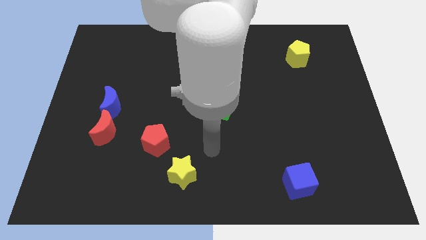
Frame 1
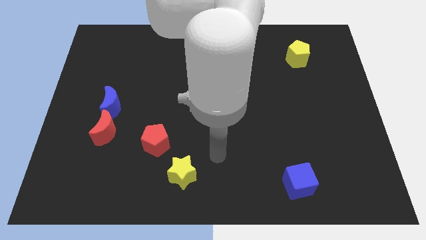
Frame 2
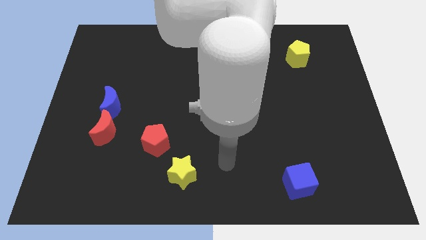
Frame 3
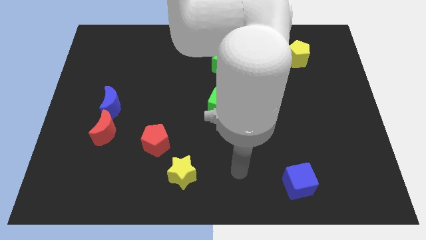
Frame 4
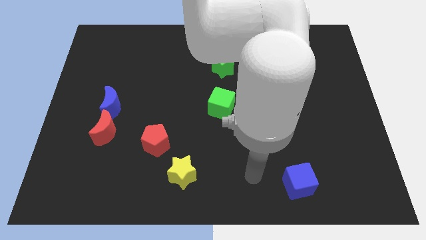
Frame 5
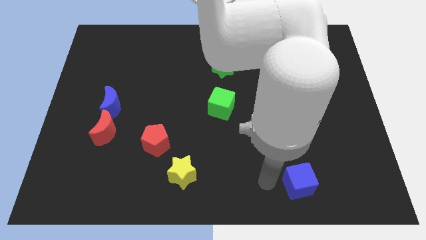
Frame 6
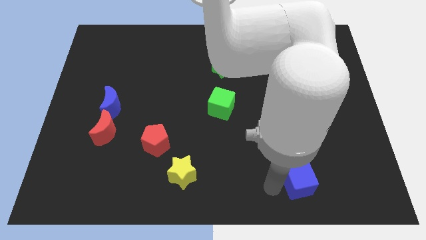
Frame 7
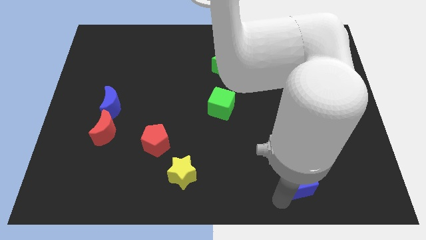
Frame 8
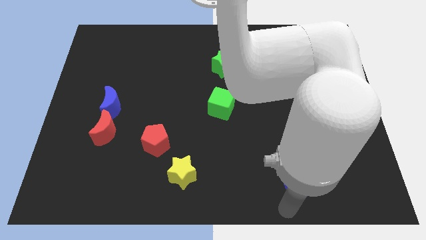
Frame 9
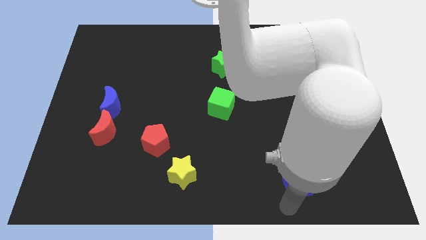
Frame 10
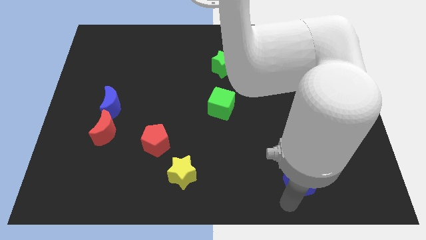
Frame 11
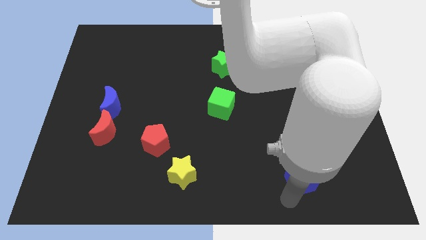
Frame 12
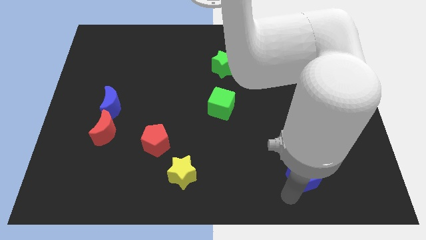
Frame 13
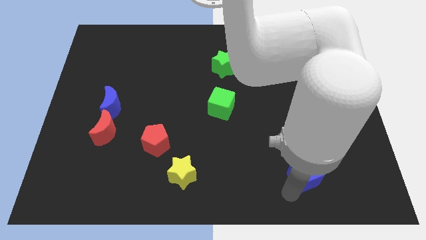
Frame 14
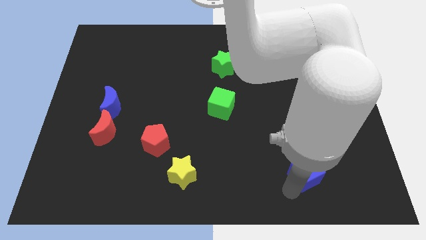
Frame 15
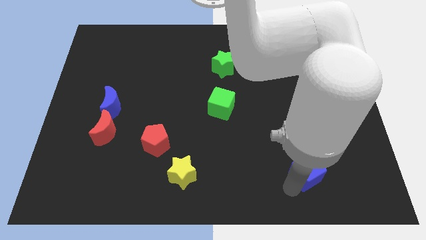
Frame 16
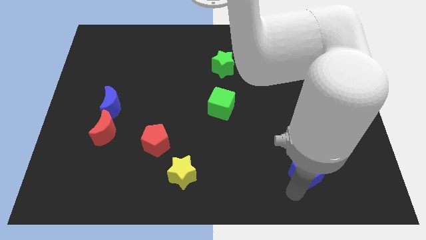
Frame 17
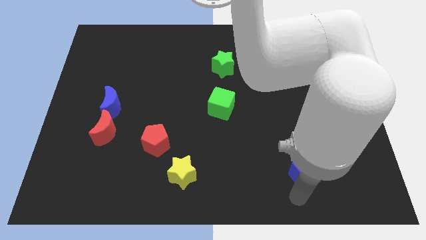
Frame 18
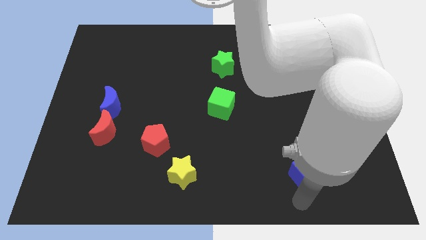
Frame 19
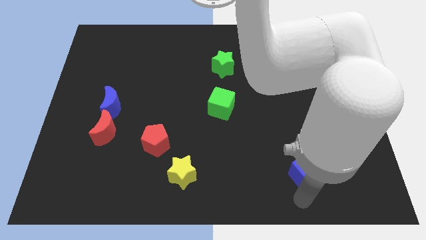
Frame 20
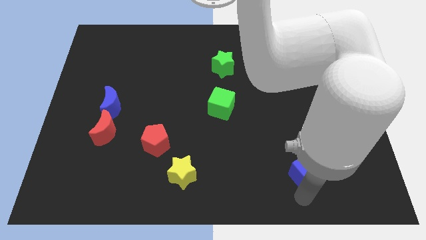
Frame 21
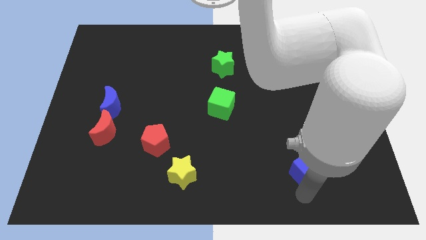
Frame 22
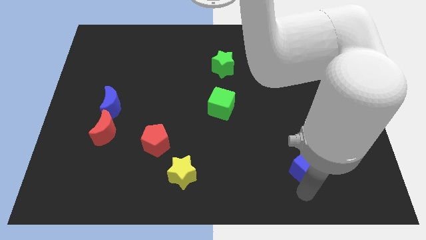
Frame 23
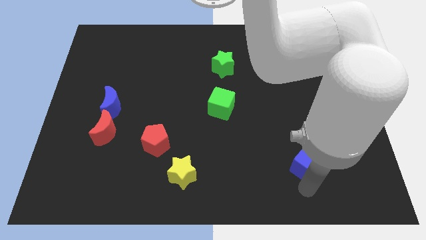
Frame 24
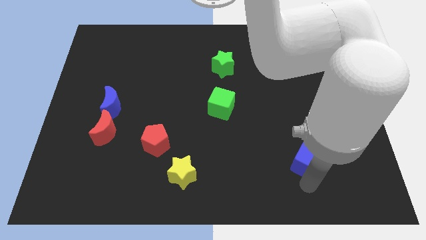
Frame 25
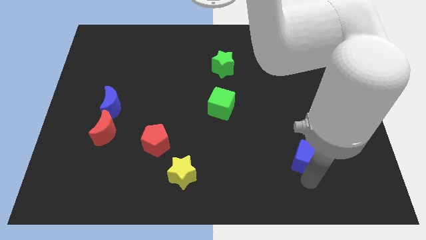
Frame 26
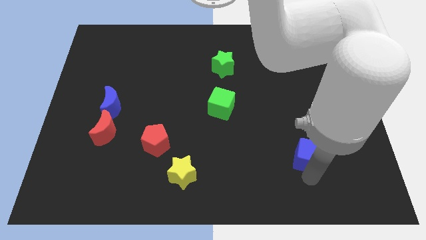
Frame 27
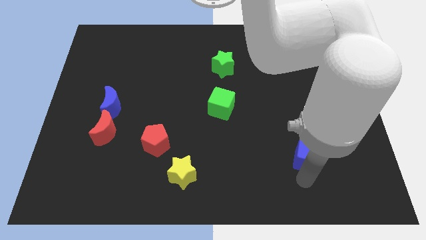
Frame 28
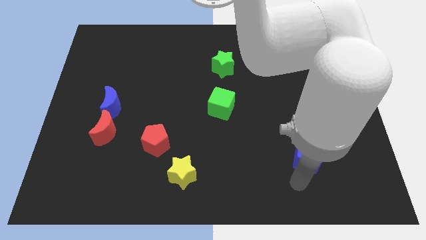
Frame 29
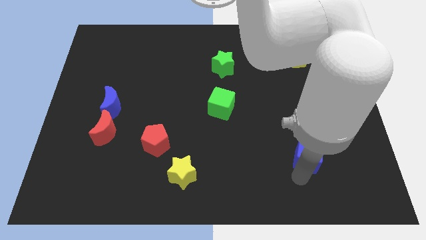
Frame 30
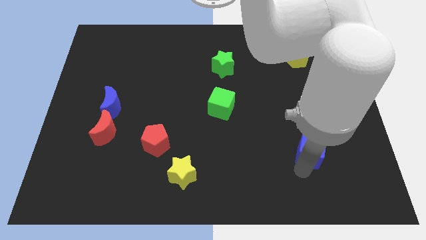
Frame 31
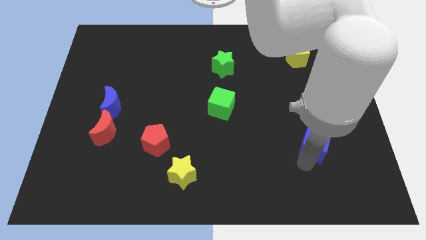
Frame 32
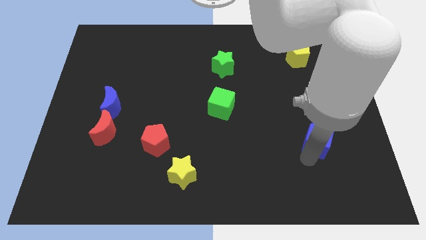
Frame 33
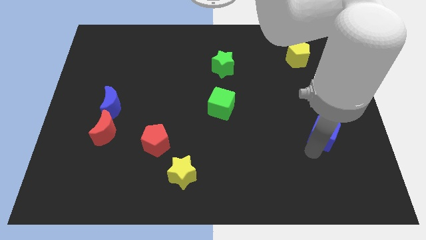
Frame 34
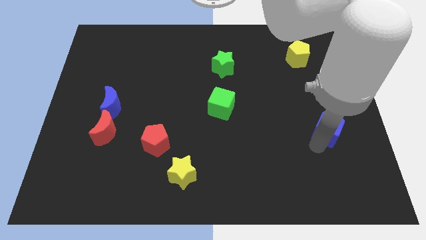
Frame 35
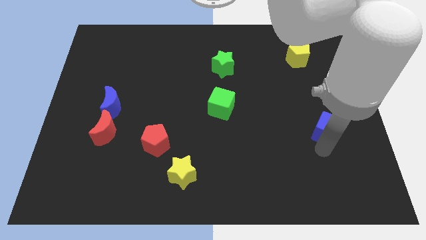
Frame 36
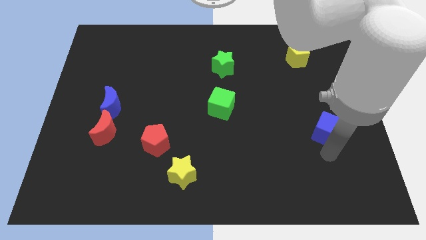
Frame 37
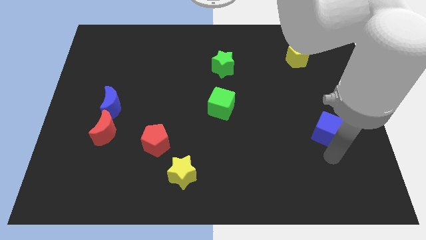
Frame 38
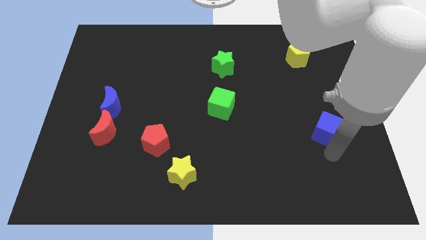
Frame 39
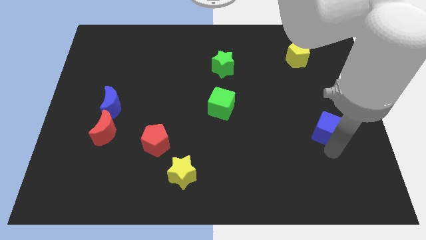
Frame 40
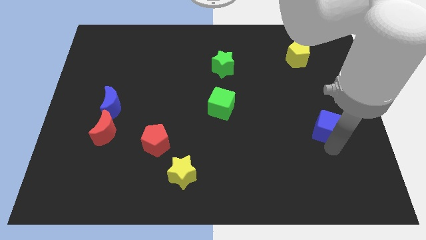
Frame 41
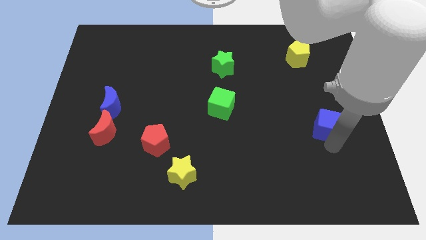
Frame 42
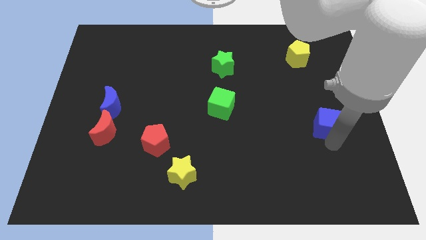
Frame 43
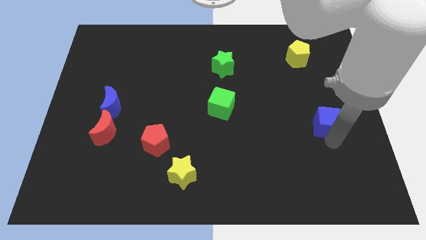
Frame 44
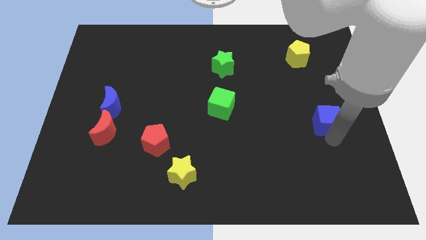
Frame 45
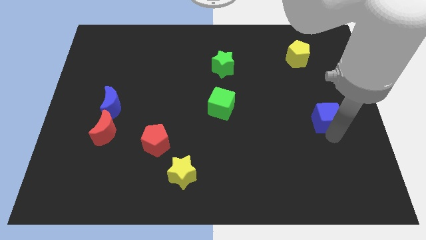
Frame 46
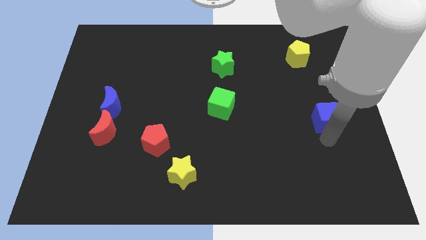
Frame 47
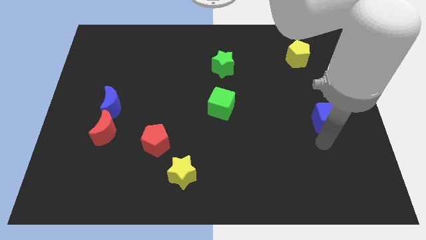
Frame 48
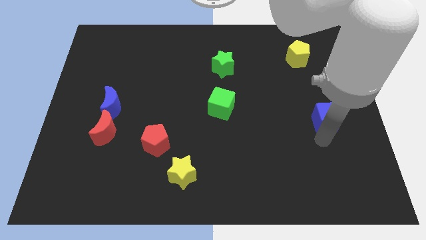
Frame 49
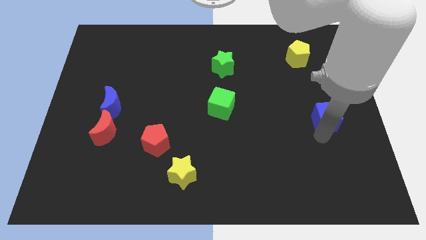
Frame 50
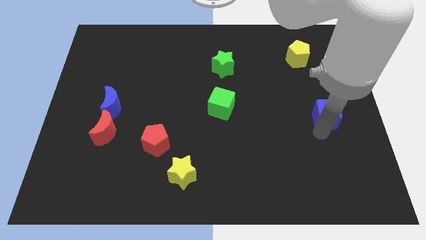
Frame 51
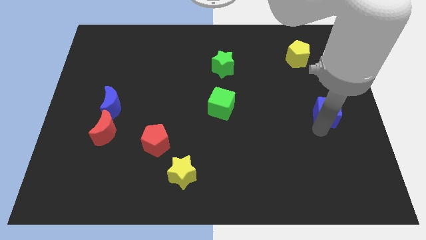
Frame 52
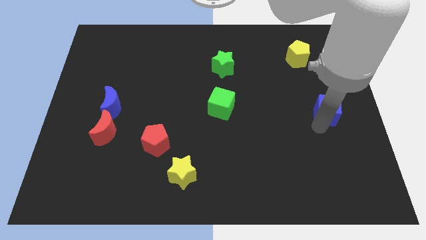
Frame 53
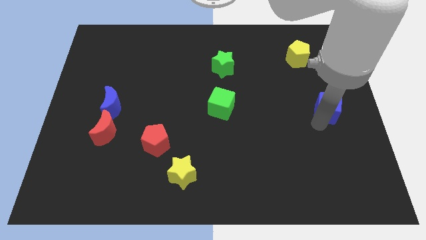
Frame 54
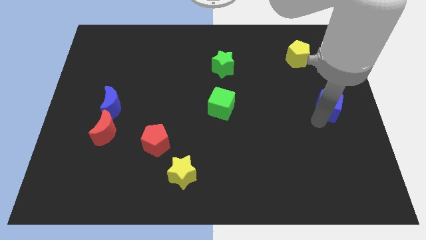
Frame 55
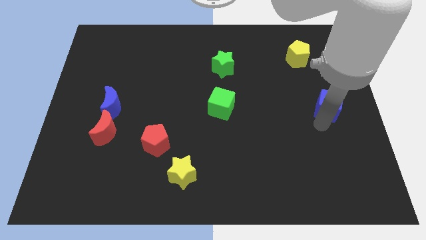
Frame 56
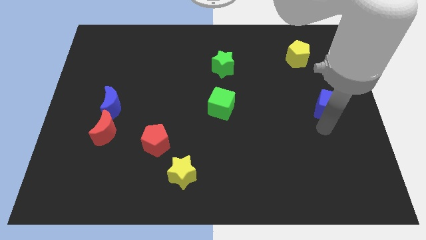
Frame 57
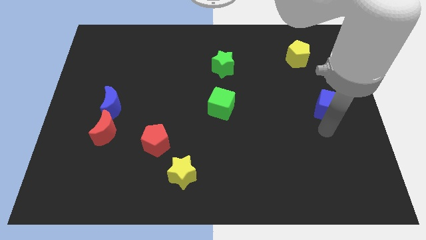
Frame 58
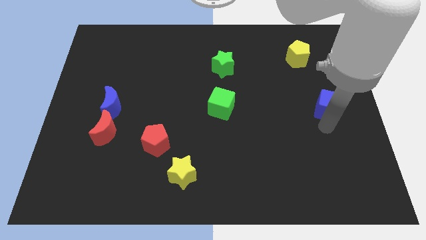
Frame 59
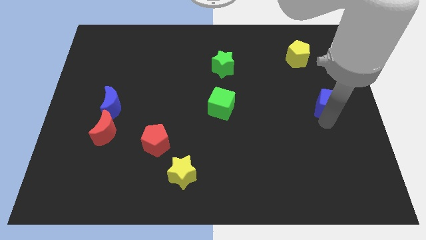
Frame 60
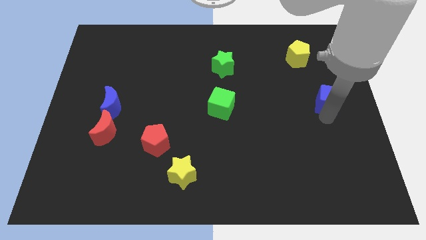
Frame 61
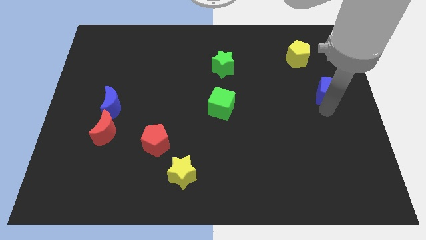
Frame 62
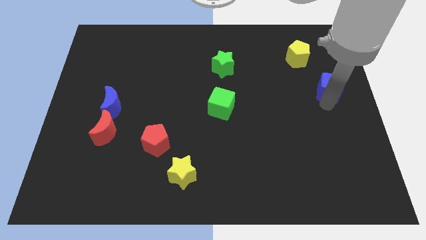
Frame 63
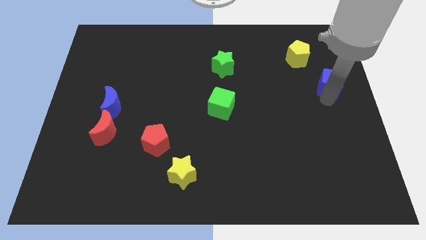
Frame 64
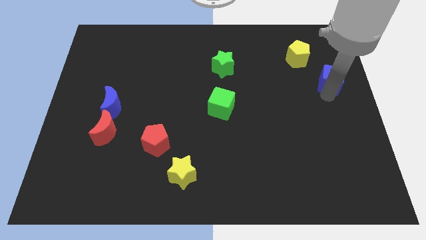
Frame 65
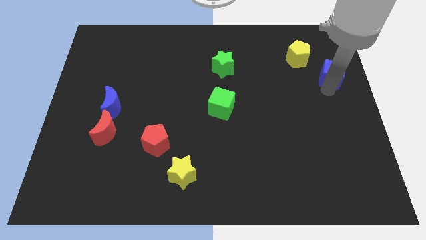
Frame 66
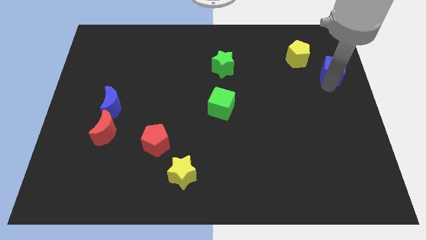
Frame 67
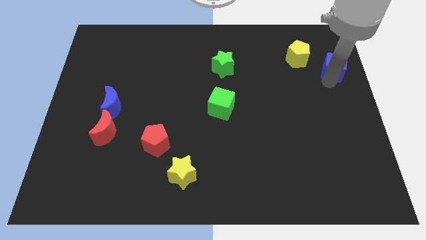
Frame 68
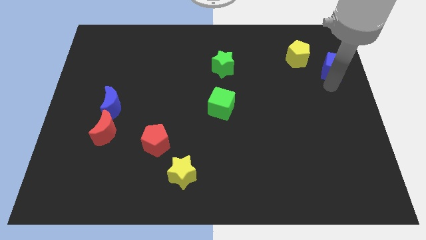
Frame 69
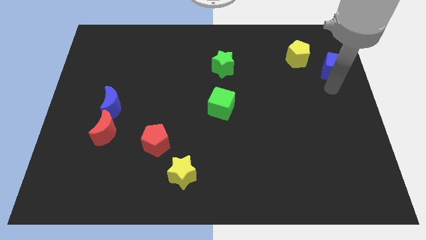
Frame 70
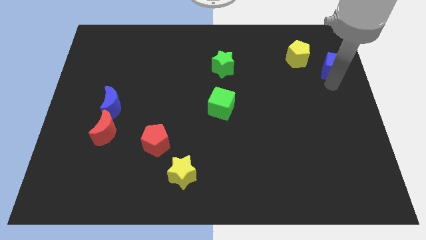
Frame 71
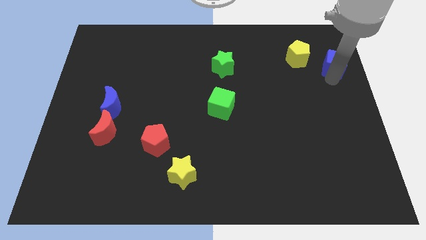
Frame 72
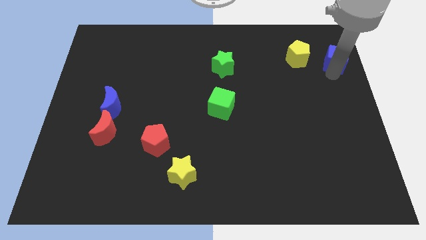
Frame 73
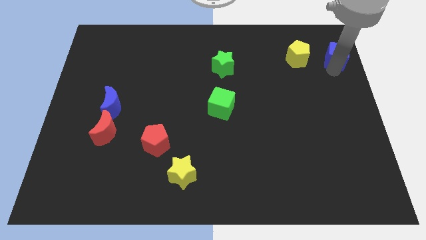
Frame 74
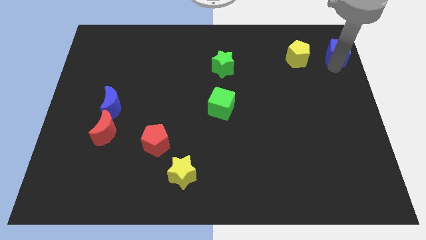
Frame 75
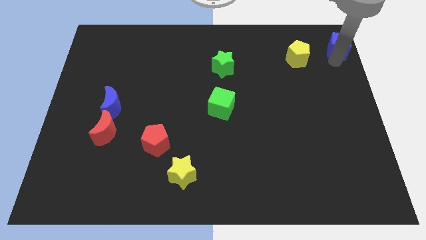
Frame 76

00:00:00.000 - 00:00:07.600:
push the blue cube to the top right of the board
